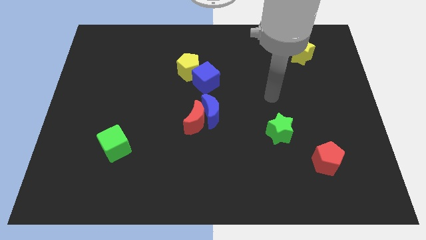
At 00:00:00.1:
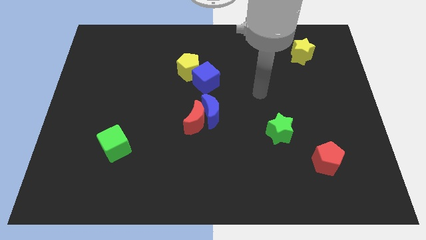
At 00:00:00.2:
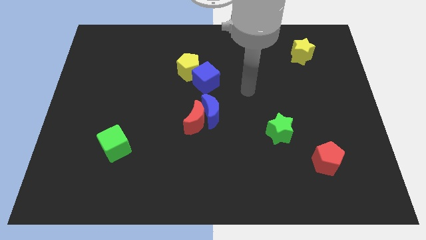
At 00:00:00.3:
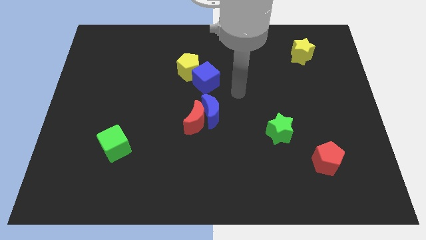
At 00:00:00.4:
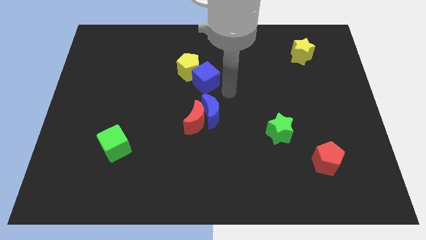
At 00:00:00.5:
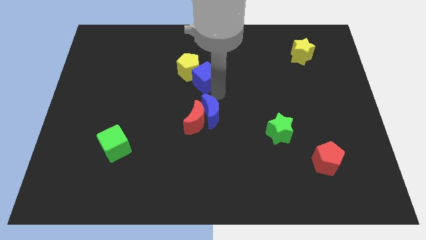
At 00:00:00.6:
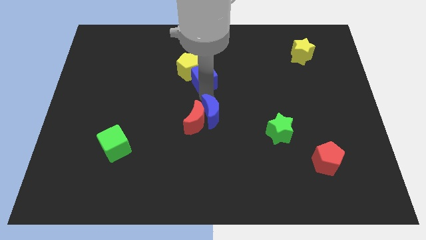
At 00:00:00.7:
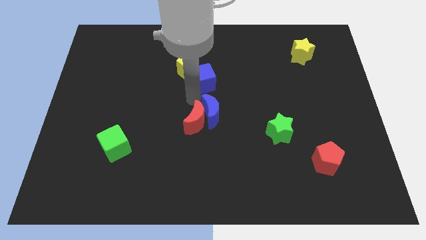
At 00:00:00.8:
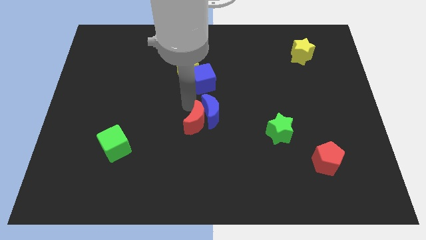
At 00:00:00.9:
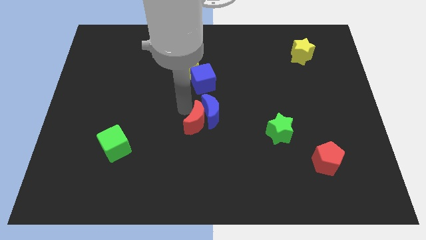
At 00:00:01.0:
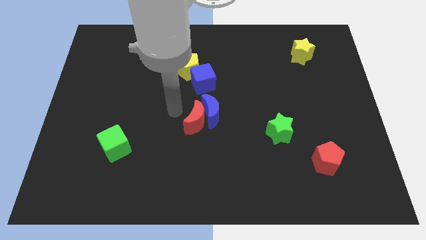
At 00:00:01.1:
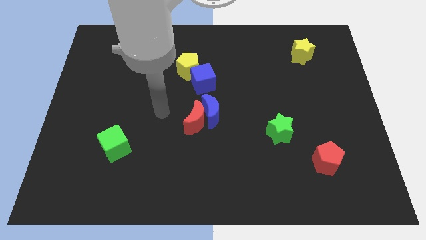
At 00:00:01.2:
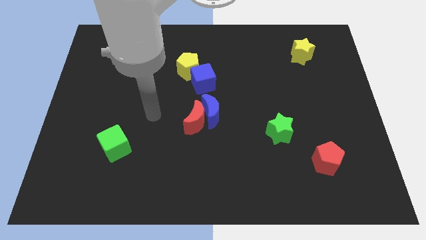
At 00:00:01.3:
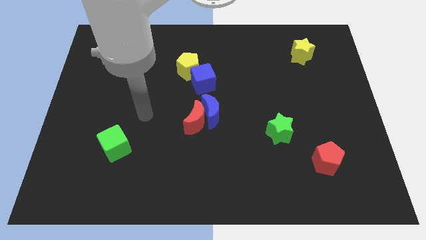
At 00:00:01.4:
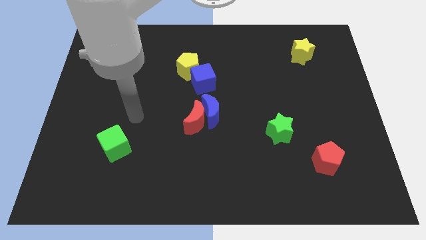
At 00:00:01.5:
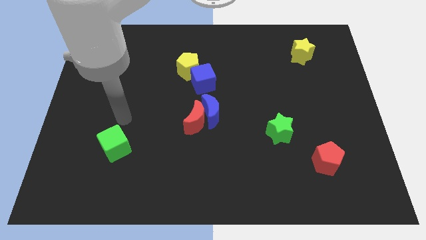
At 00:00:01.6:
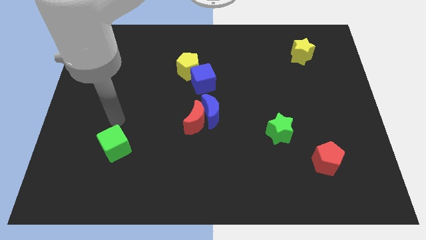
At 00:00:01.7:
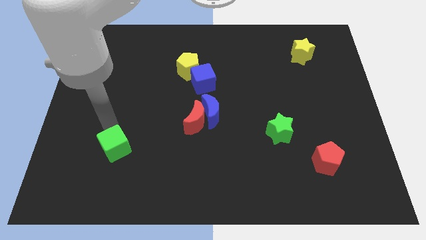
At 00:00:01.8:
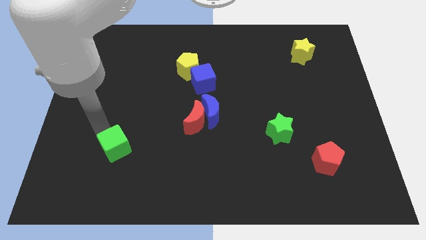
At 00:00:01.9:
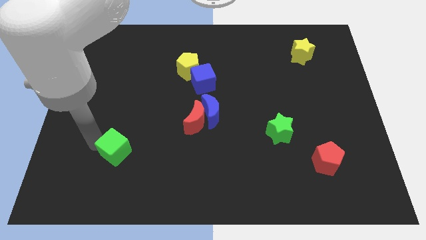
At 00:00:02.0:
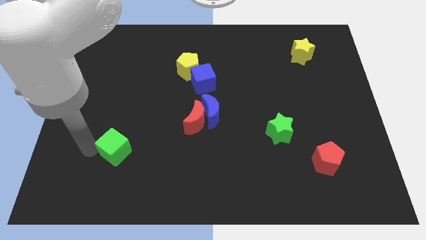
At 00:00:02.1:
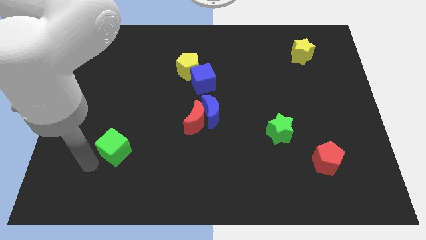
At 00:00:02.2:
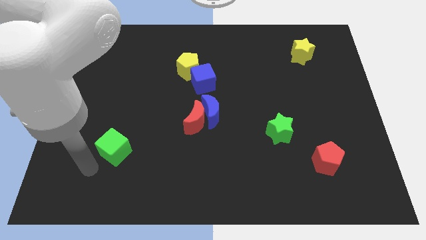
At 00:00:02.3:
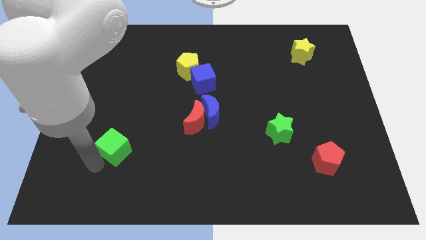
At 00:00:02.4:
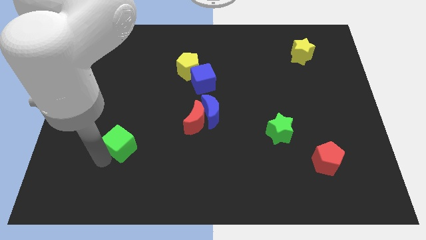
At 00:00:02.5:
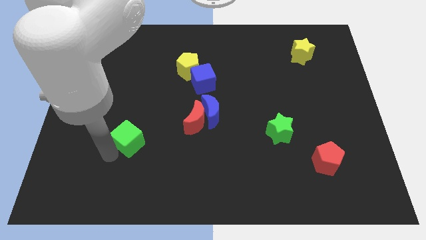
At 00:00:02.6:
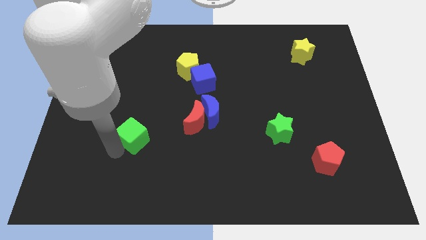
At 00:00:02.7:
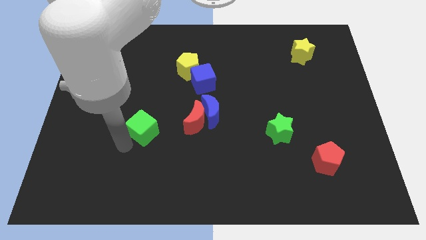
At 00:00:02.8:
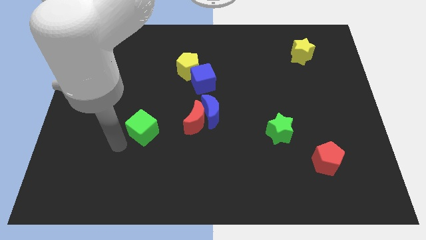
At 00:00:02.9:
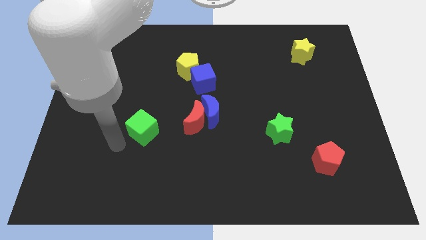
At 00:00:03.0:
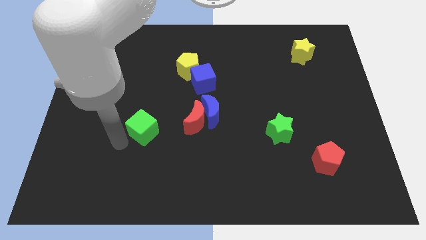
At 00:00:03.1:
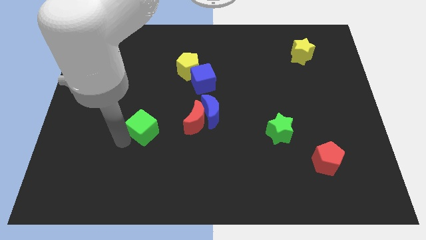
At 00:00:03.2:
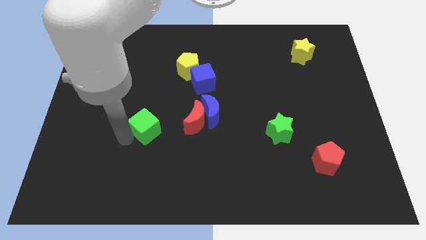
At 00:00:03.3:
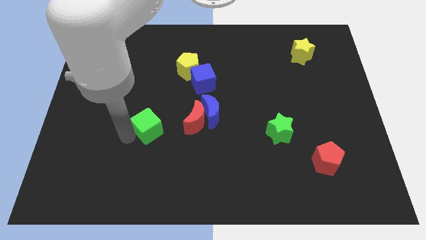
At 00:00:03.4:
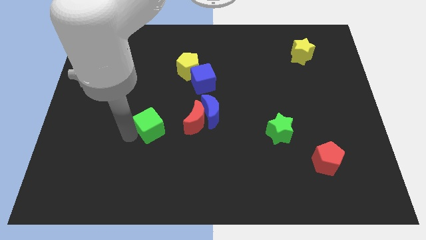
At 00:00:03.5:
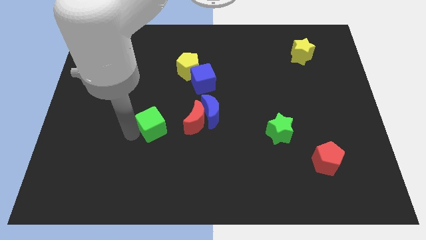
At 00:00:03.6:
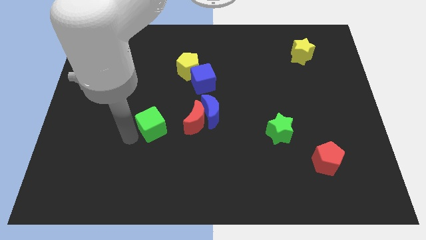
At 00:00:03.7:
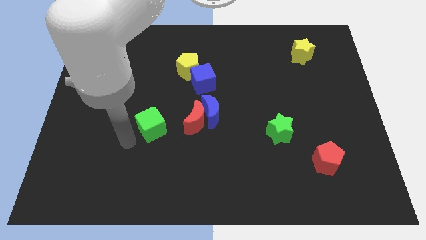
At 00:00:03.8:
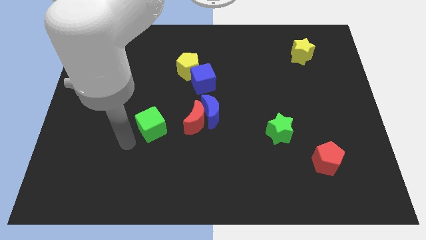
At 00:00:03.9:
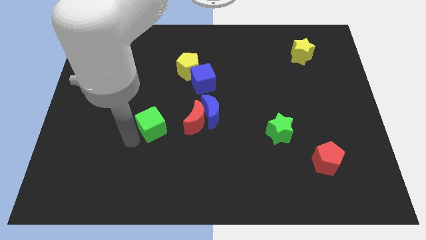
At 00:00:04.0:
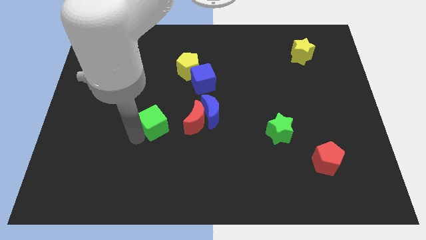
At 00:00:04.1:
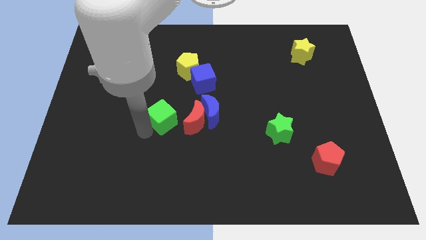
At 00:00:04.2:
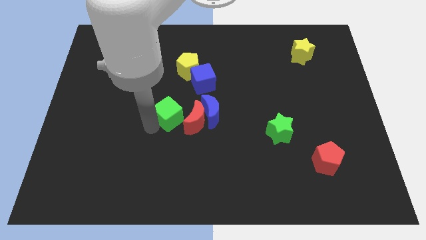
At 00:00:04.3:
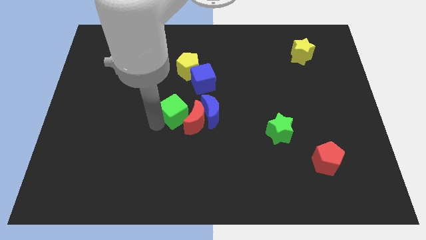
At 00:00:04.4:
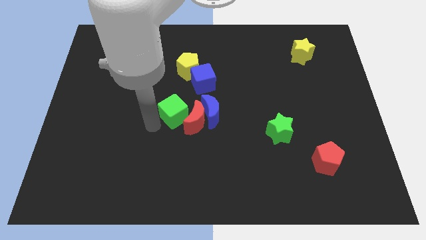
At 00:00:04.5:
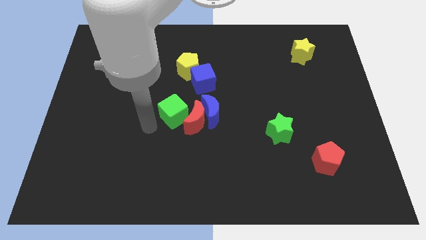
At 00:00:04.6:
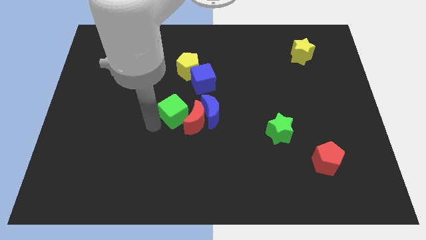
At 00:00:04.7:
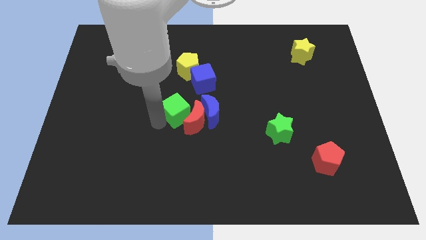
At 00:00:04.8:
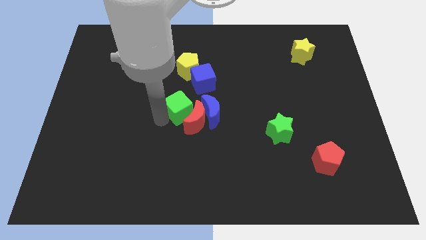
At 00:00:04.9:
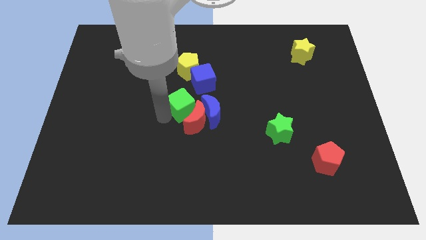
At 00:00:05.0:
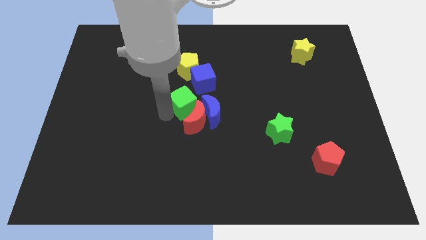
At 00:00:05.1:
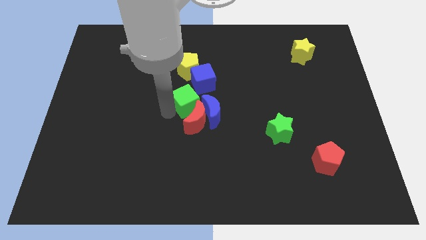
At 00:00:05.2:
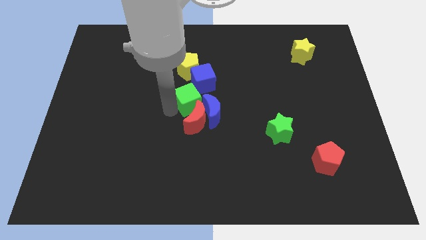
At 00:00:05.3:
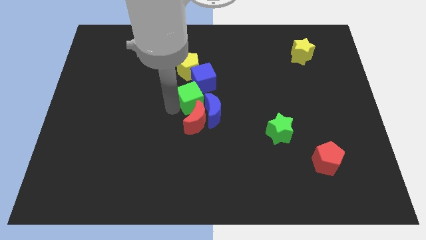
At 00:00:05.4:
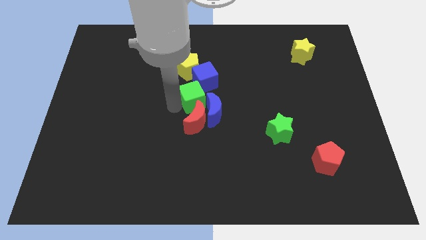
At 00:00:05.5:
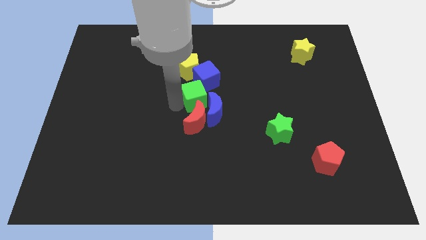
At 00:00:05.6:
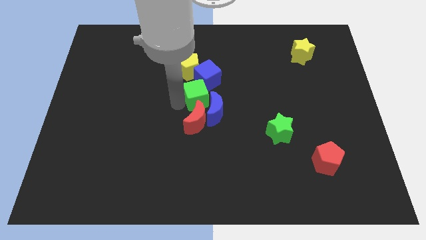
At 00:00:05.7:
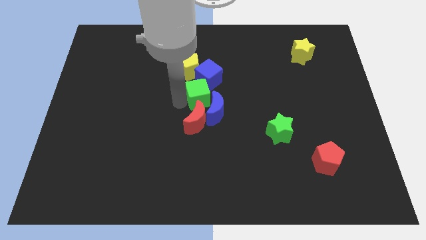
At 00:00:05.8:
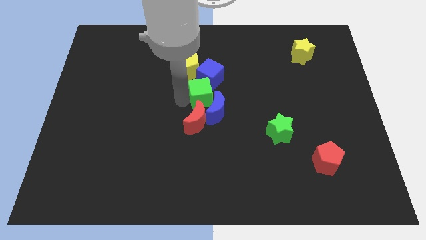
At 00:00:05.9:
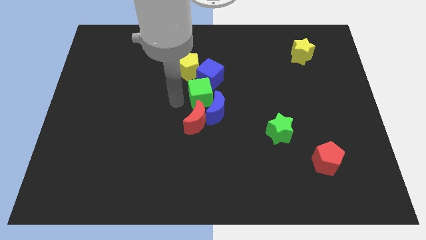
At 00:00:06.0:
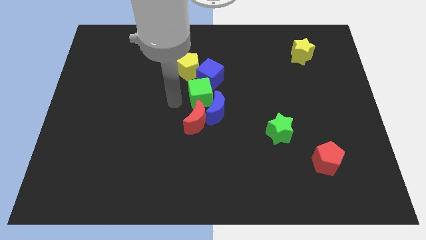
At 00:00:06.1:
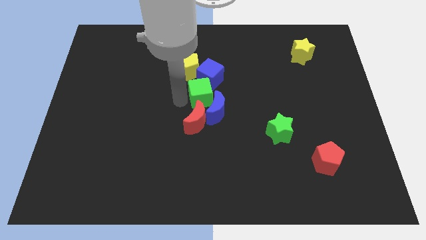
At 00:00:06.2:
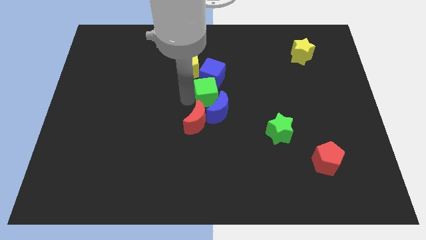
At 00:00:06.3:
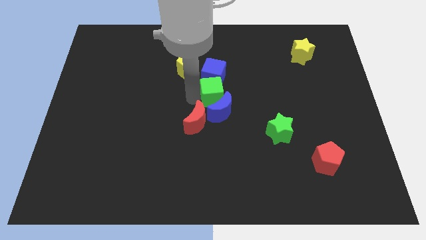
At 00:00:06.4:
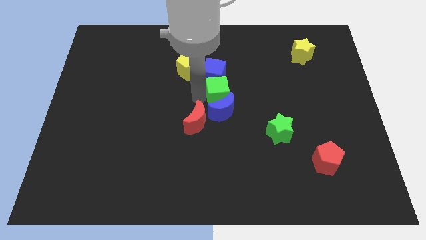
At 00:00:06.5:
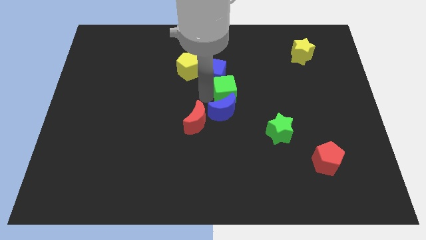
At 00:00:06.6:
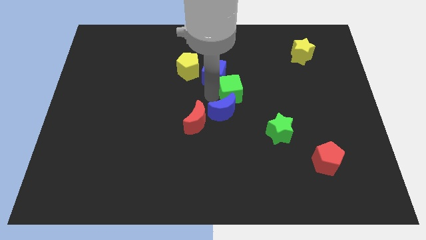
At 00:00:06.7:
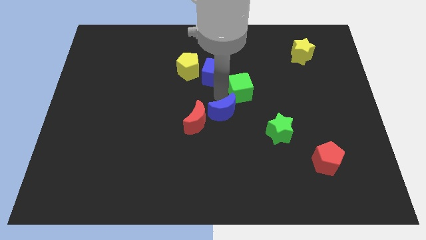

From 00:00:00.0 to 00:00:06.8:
push the green cube to the right of the blue cube
